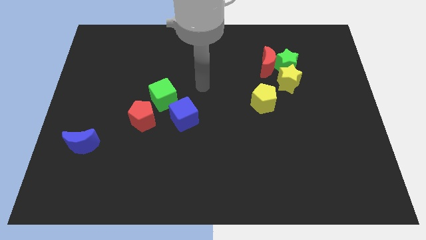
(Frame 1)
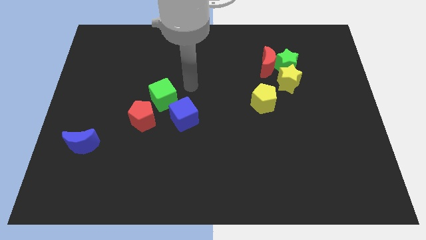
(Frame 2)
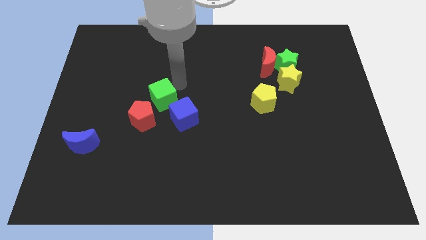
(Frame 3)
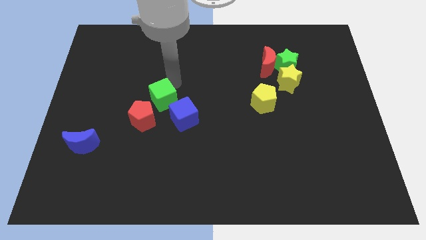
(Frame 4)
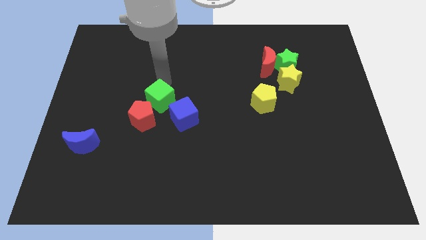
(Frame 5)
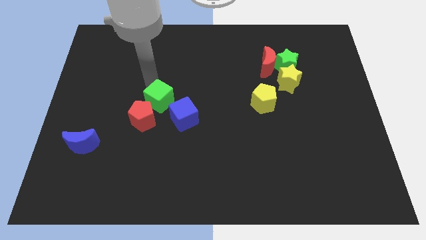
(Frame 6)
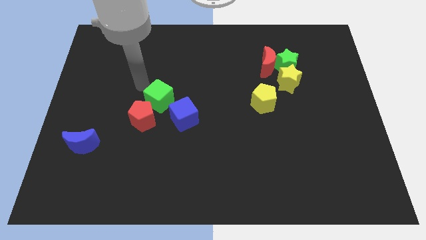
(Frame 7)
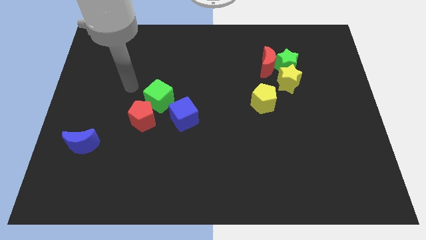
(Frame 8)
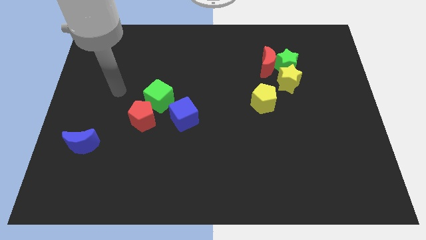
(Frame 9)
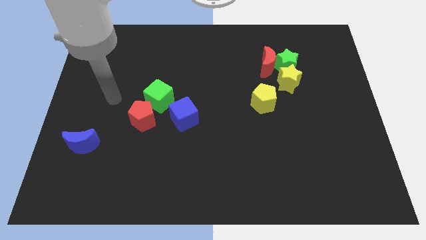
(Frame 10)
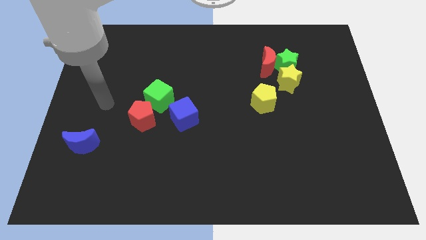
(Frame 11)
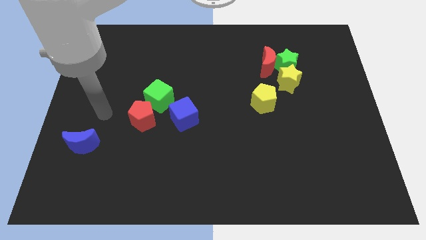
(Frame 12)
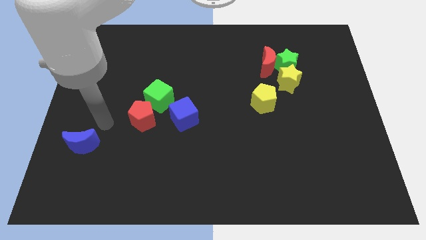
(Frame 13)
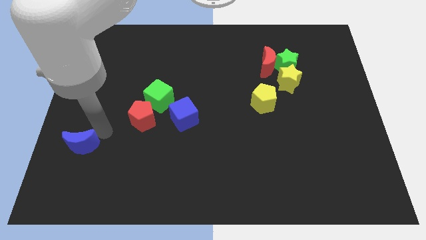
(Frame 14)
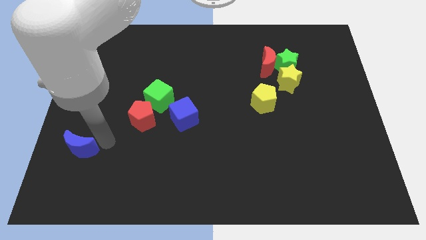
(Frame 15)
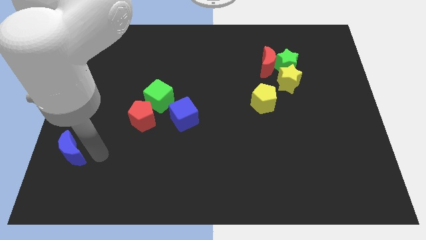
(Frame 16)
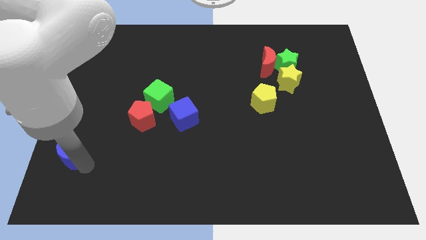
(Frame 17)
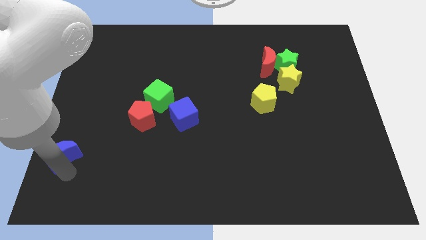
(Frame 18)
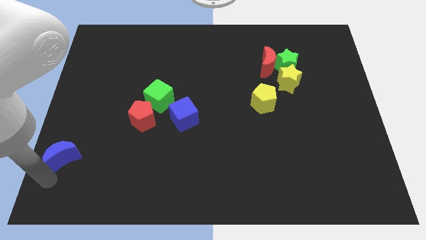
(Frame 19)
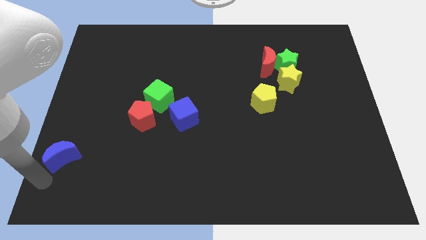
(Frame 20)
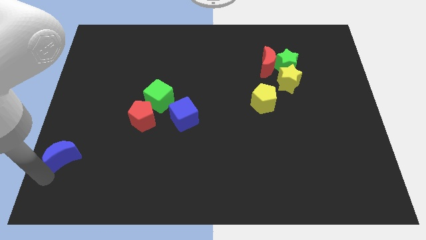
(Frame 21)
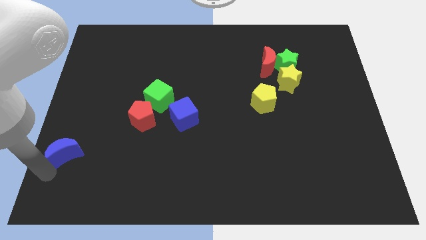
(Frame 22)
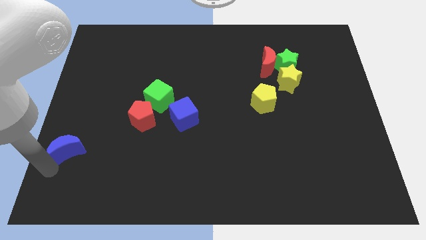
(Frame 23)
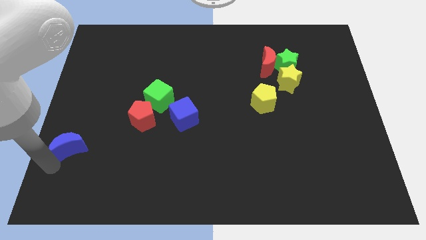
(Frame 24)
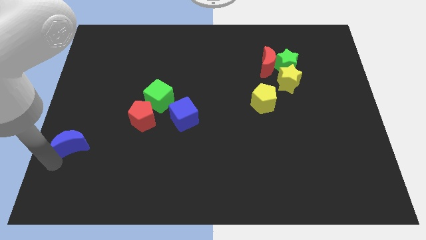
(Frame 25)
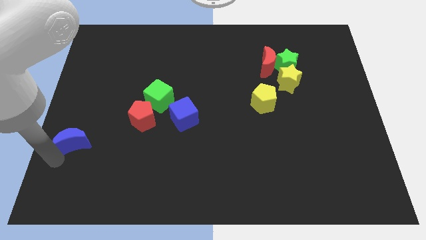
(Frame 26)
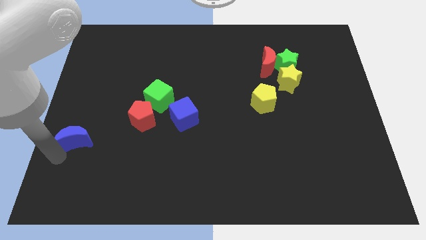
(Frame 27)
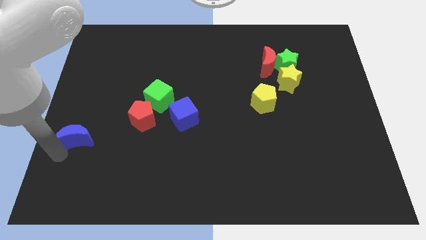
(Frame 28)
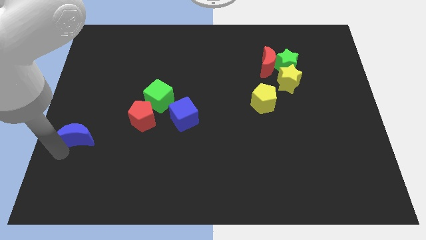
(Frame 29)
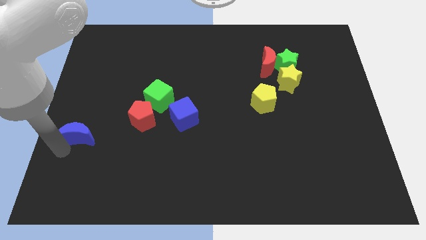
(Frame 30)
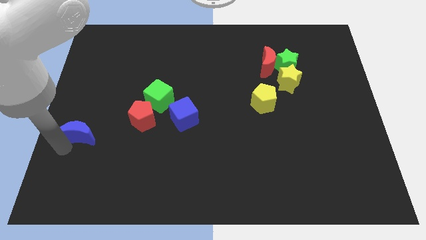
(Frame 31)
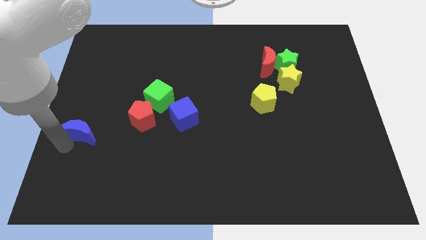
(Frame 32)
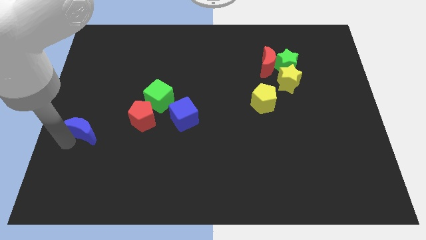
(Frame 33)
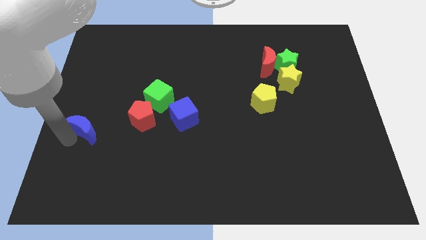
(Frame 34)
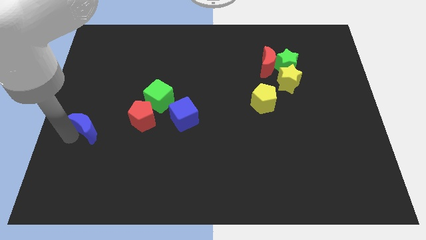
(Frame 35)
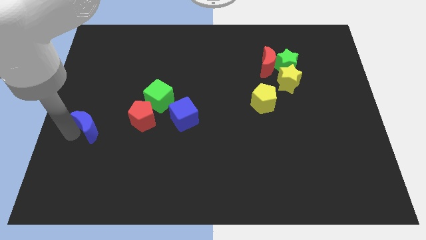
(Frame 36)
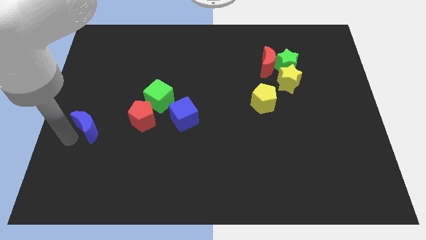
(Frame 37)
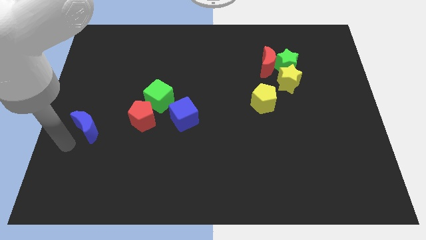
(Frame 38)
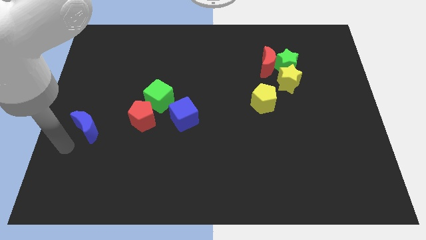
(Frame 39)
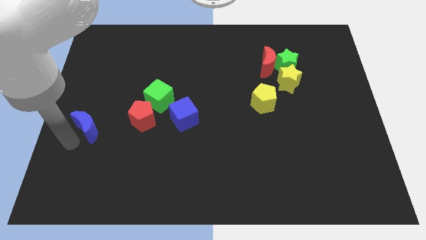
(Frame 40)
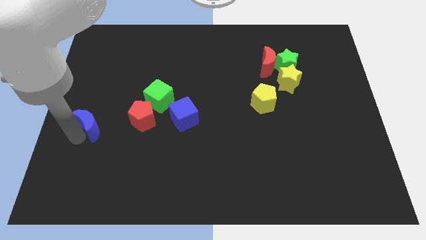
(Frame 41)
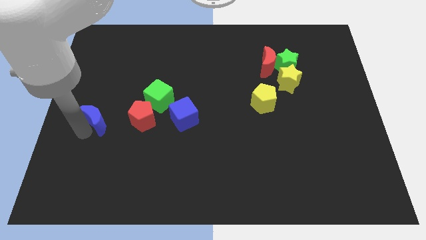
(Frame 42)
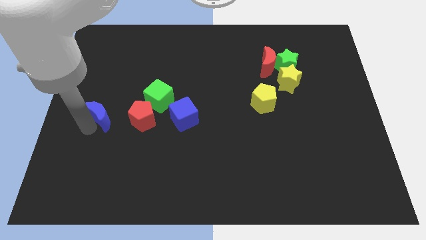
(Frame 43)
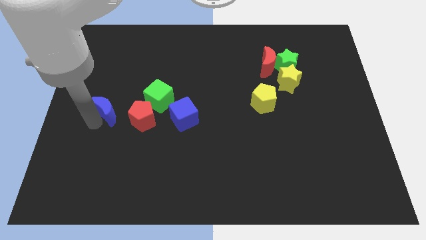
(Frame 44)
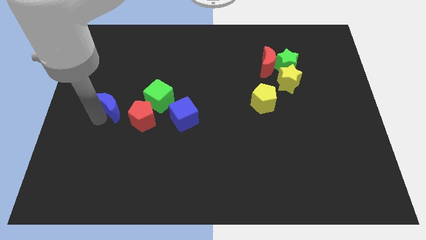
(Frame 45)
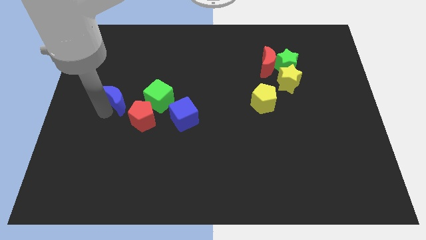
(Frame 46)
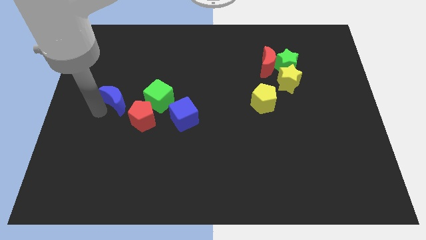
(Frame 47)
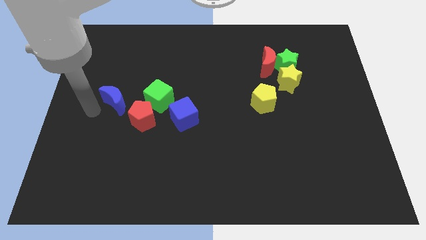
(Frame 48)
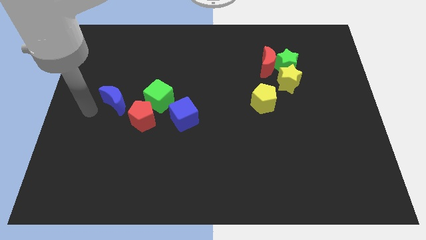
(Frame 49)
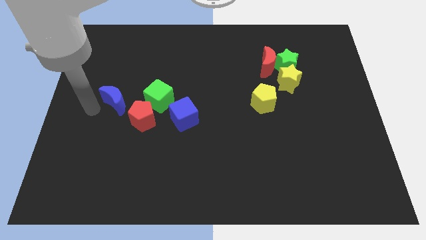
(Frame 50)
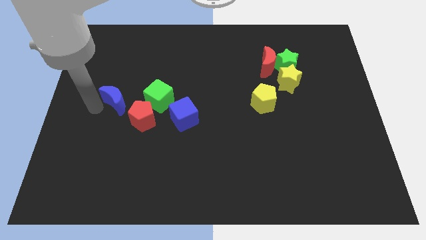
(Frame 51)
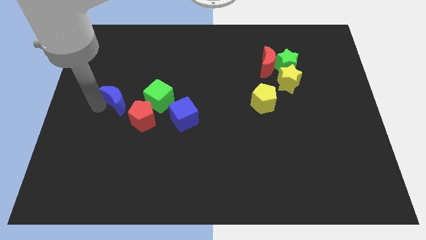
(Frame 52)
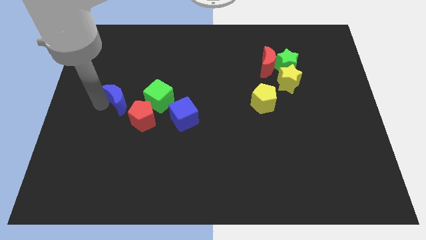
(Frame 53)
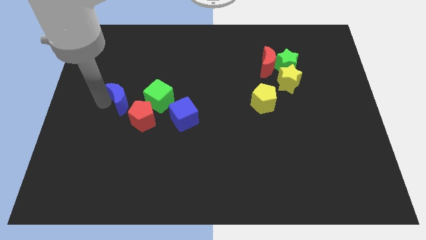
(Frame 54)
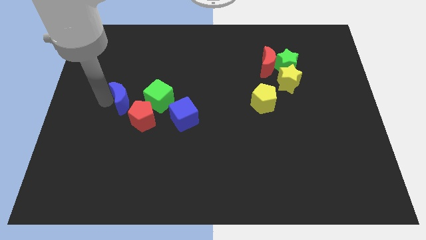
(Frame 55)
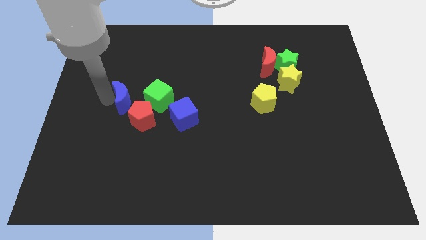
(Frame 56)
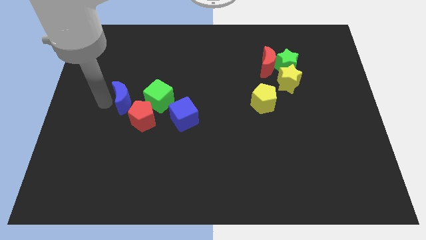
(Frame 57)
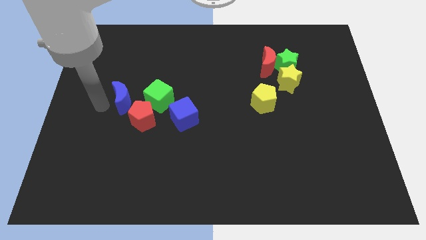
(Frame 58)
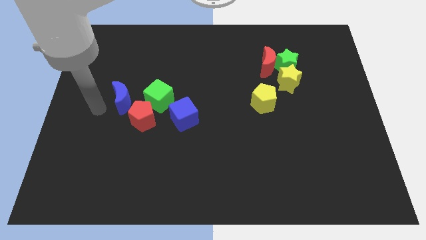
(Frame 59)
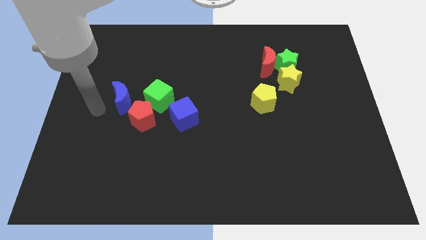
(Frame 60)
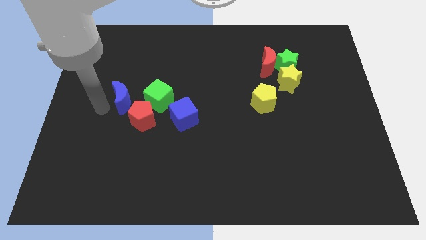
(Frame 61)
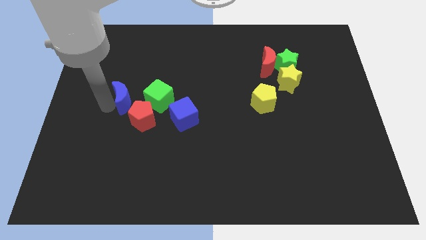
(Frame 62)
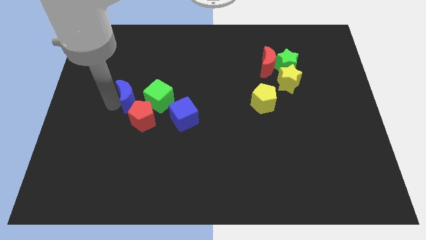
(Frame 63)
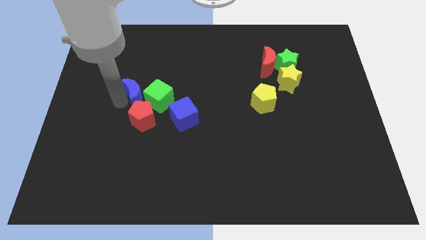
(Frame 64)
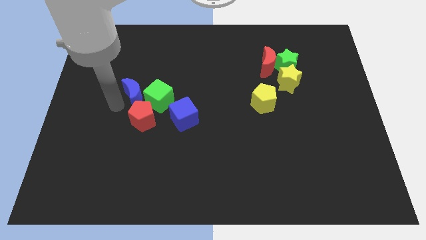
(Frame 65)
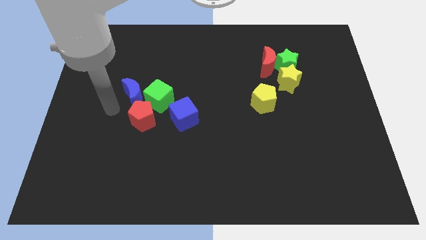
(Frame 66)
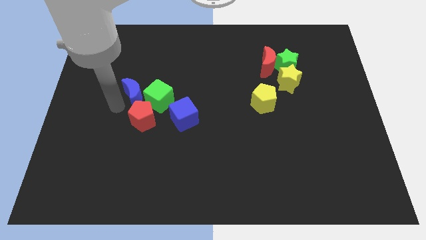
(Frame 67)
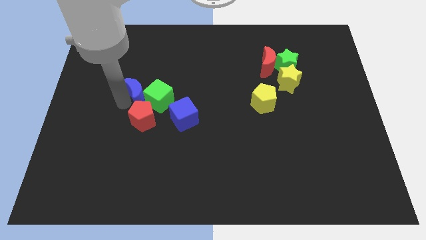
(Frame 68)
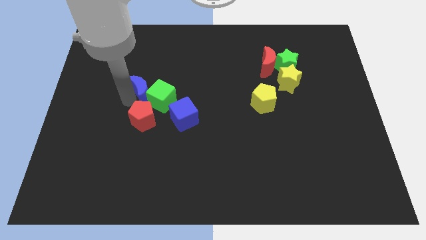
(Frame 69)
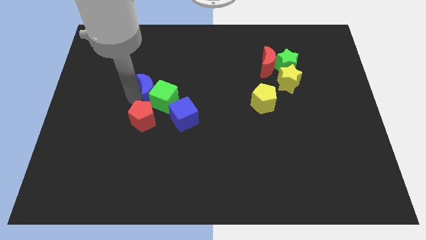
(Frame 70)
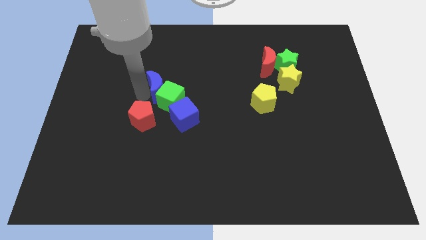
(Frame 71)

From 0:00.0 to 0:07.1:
move the blue moon up and then right

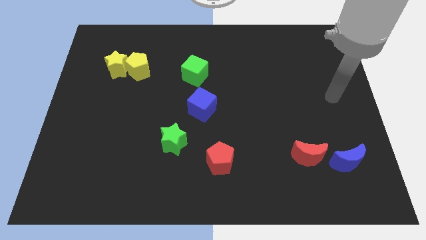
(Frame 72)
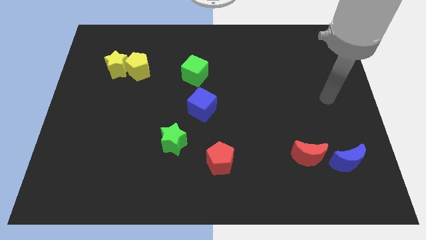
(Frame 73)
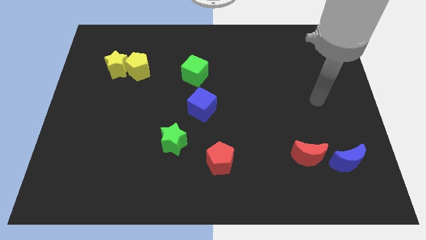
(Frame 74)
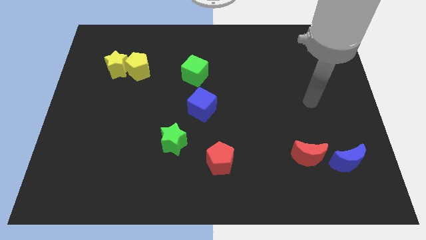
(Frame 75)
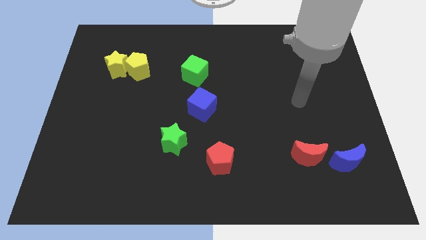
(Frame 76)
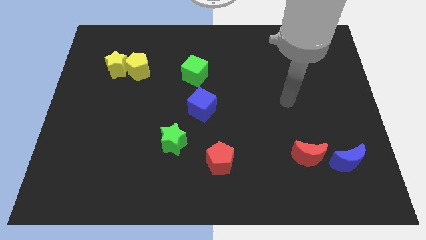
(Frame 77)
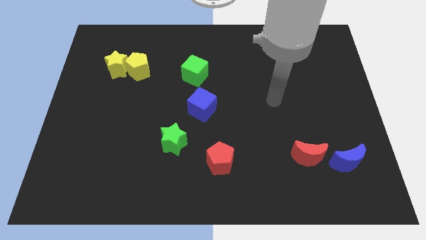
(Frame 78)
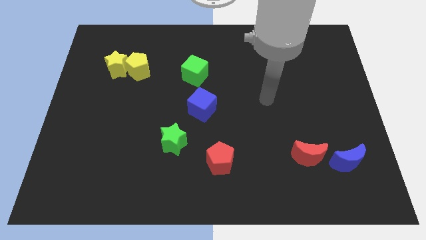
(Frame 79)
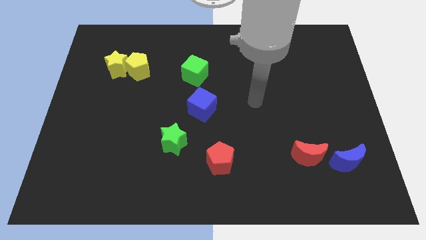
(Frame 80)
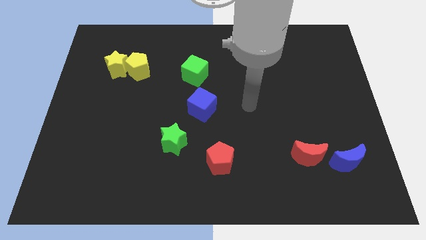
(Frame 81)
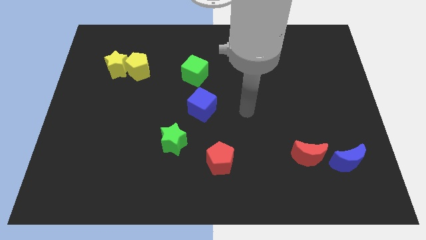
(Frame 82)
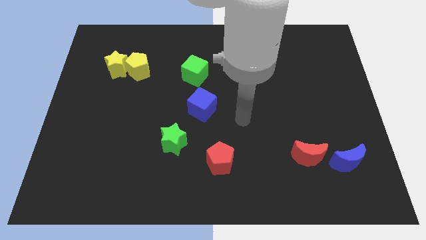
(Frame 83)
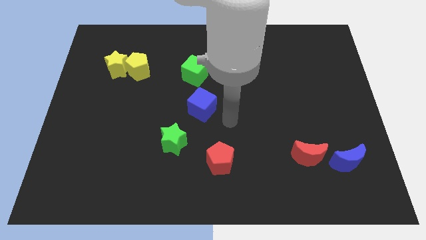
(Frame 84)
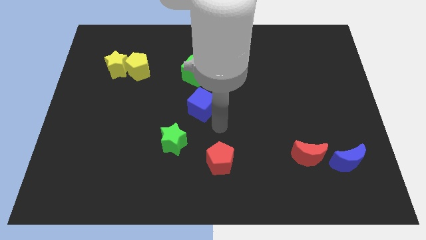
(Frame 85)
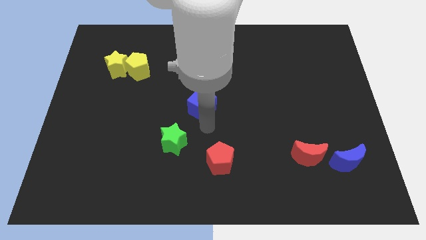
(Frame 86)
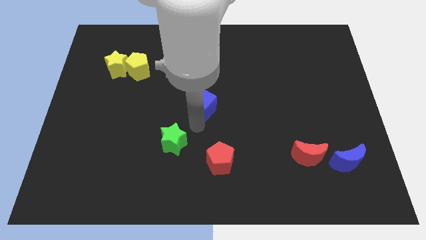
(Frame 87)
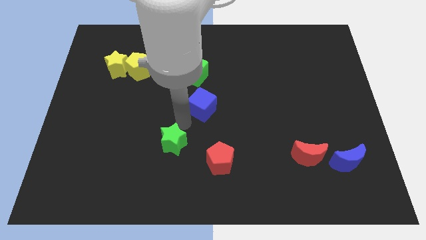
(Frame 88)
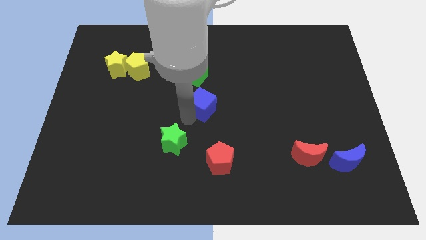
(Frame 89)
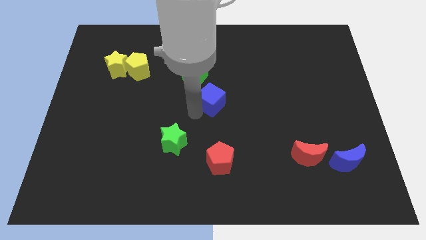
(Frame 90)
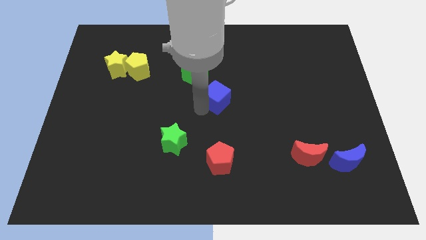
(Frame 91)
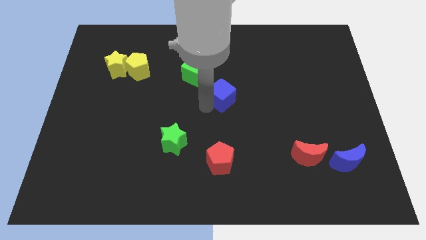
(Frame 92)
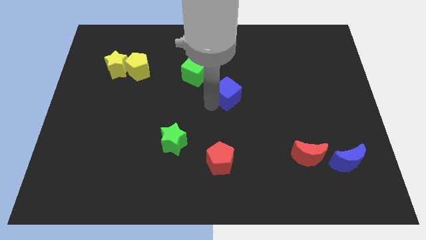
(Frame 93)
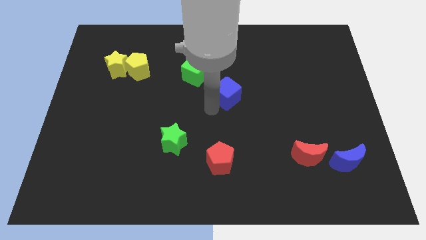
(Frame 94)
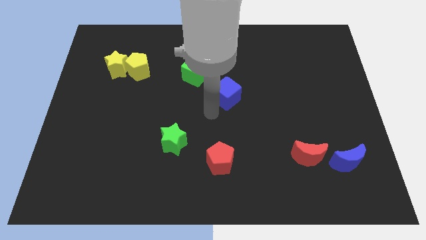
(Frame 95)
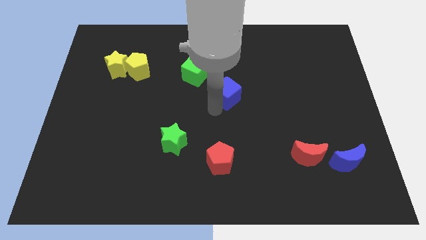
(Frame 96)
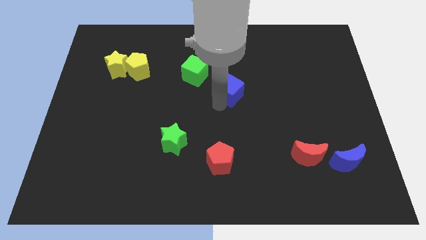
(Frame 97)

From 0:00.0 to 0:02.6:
move the blue cube up and then to the right a little bit
